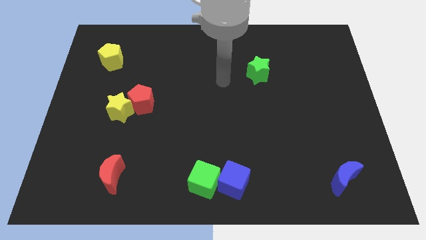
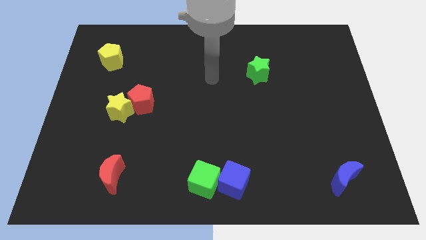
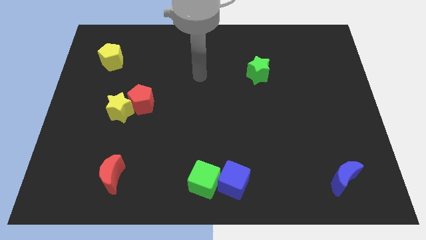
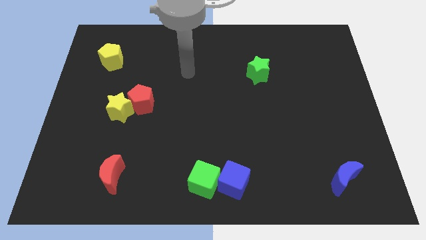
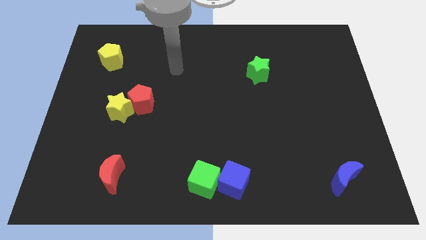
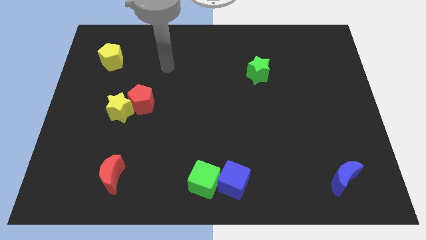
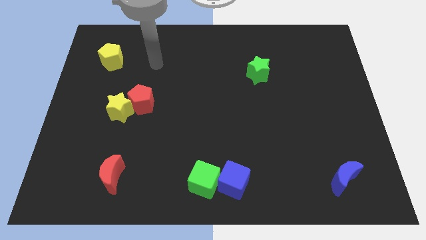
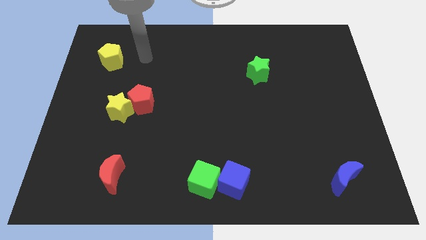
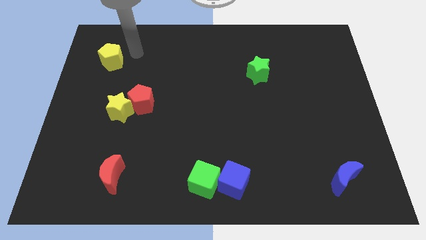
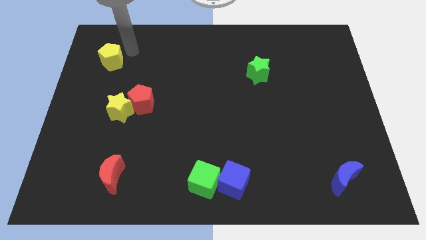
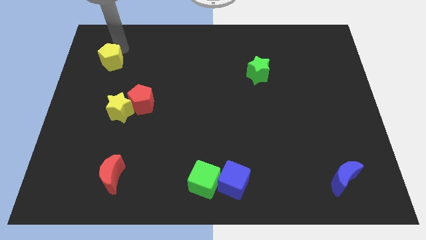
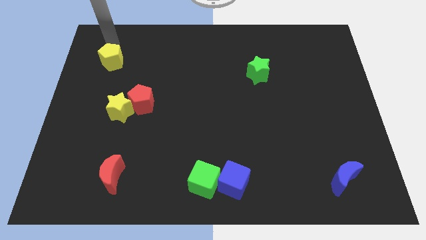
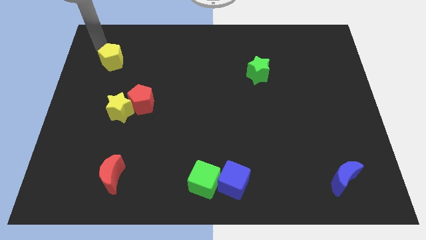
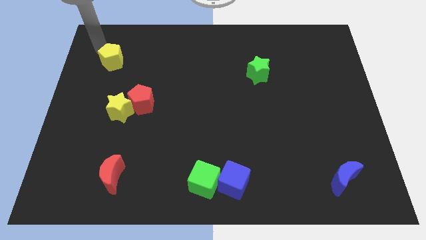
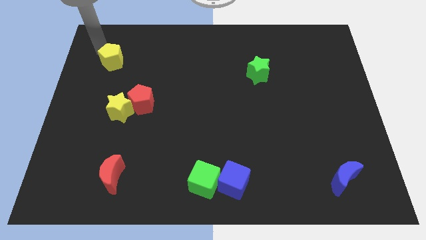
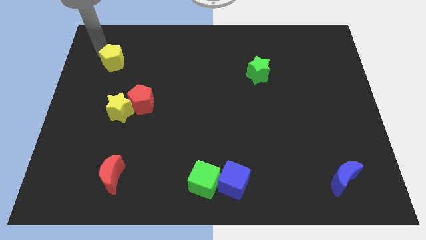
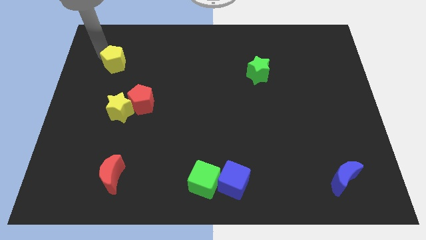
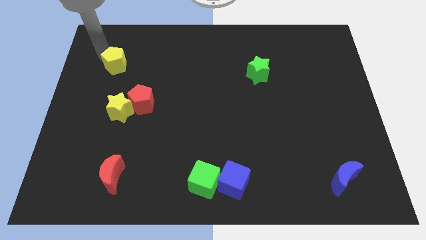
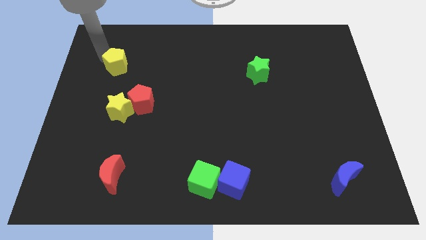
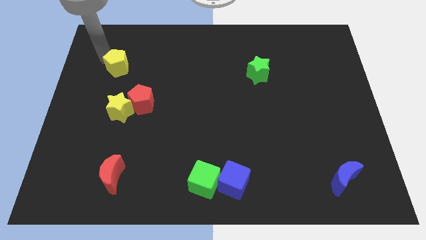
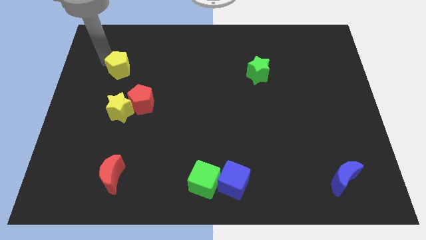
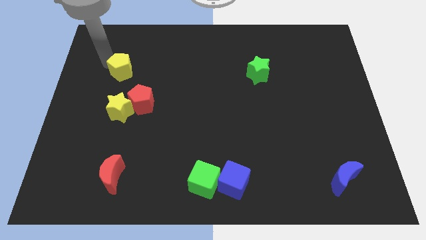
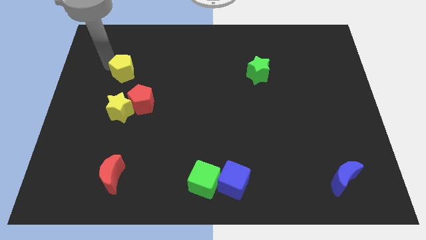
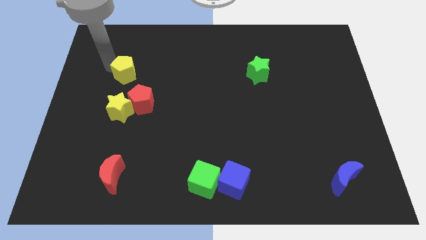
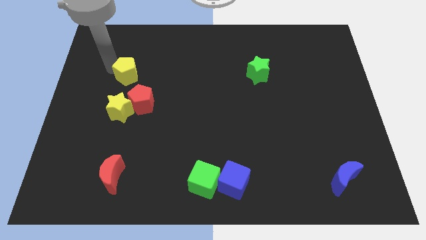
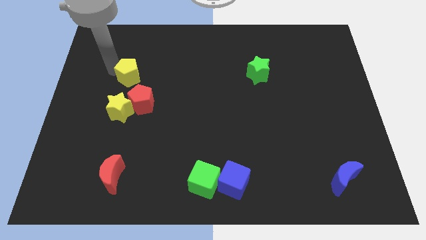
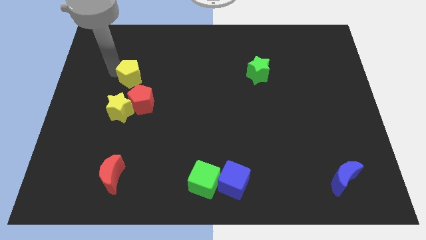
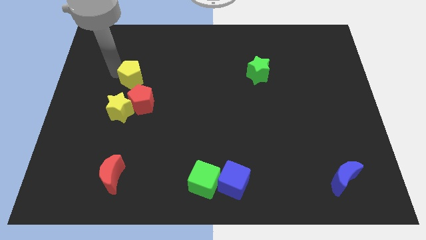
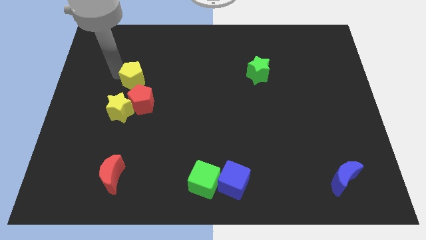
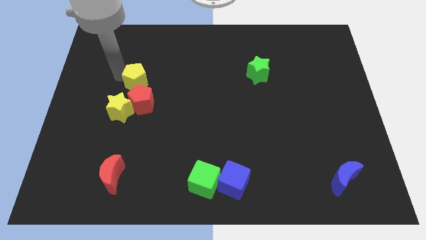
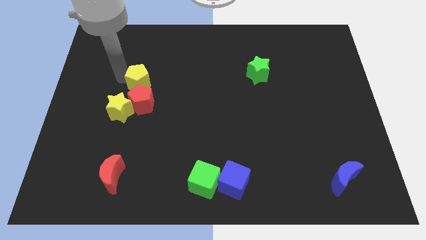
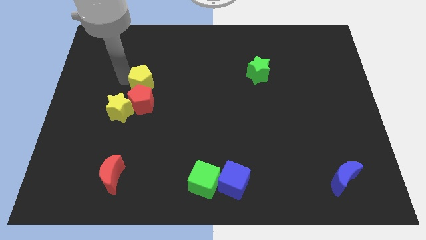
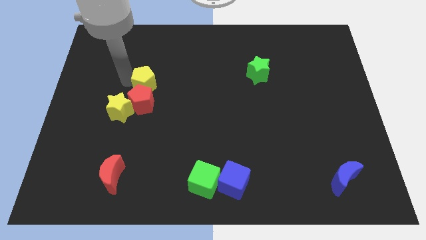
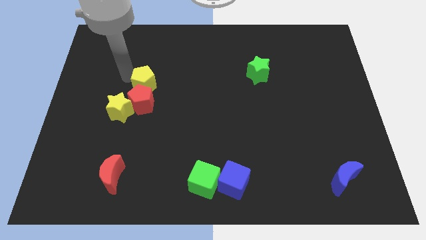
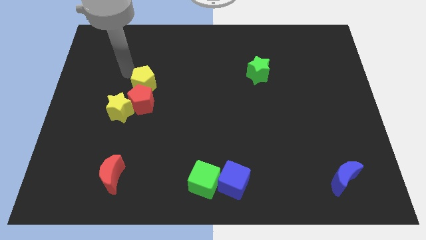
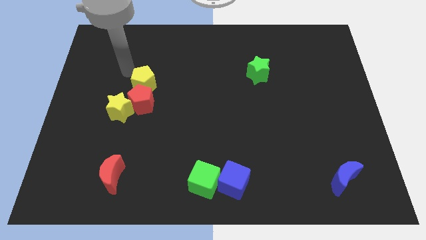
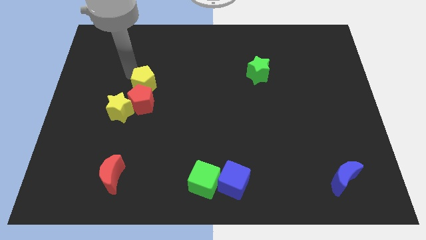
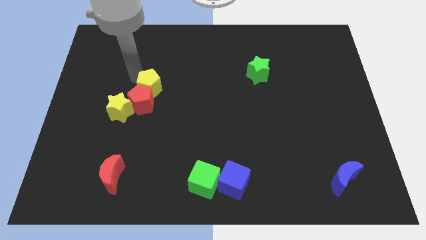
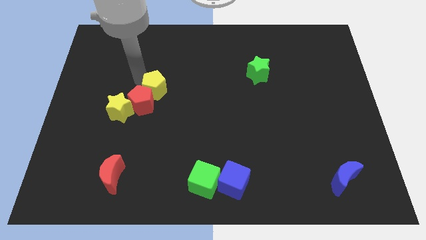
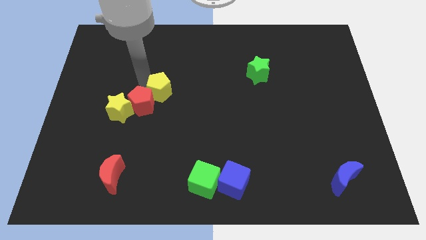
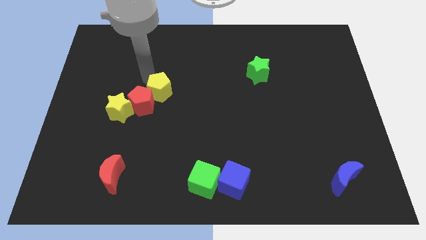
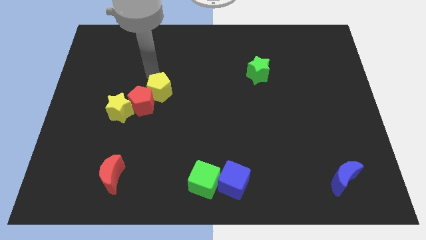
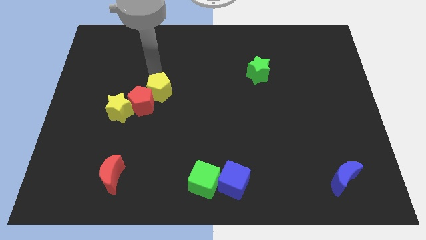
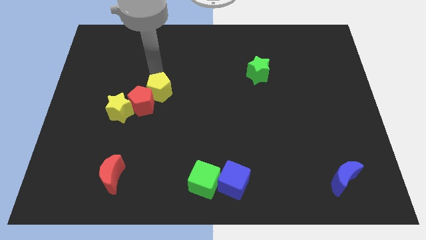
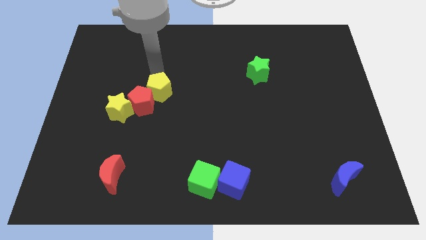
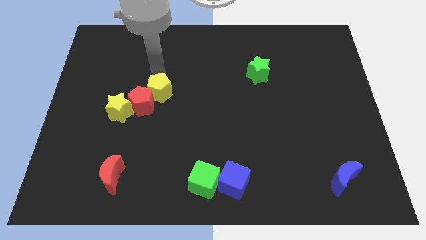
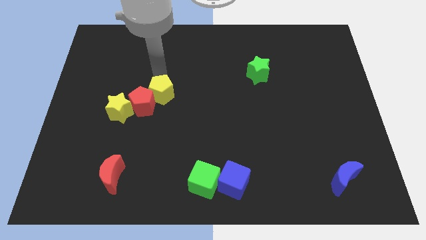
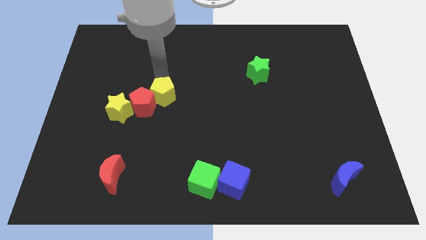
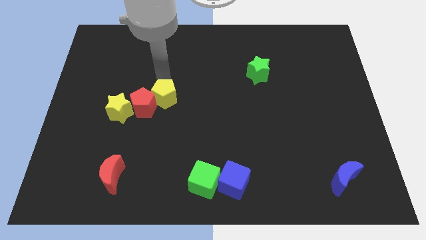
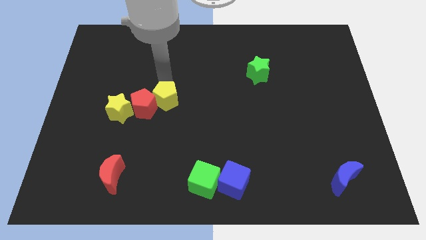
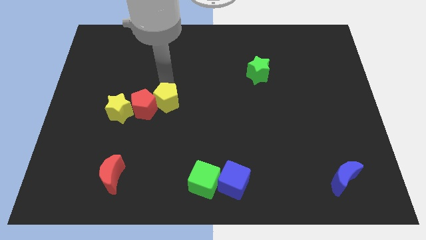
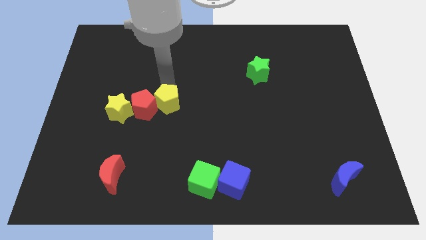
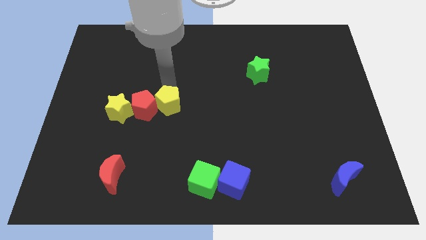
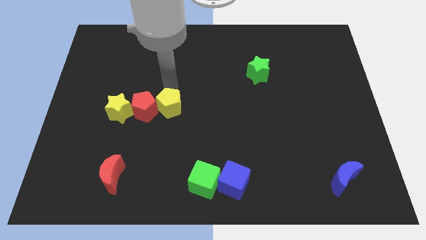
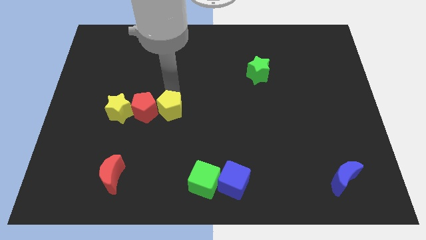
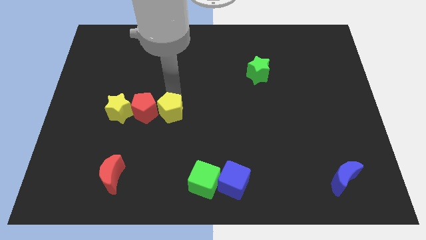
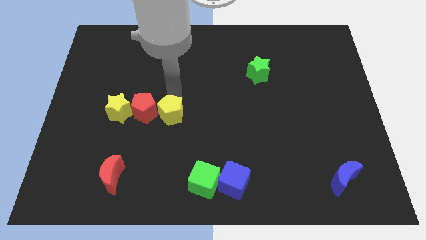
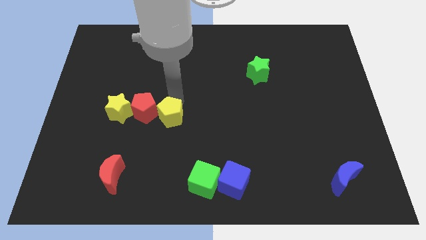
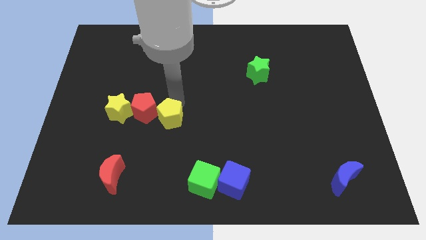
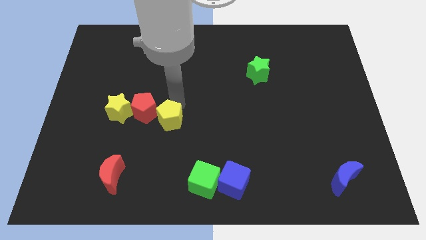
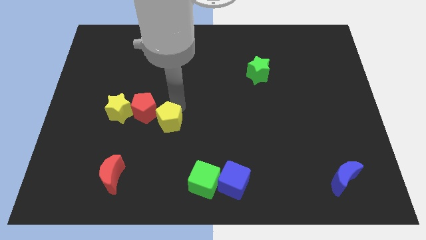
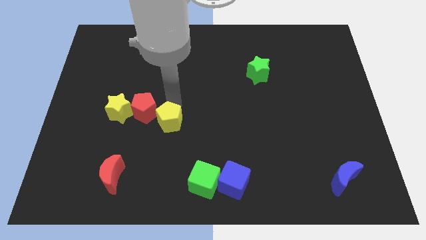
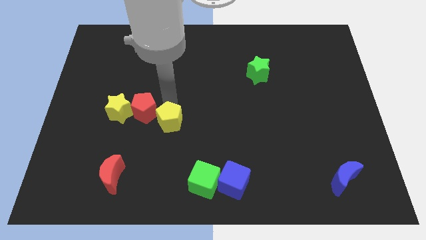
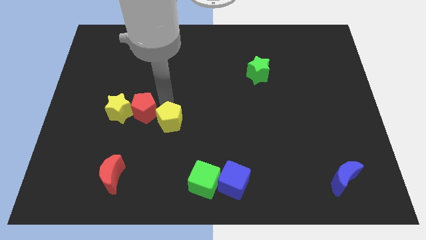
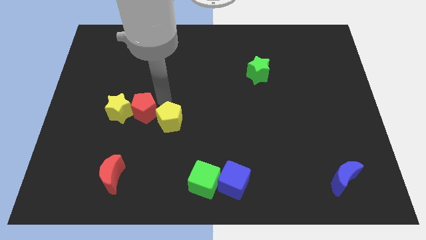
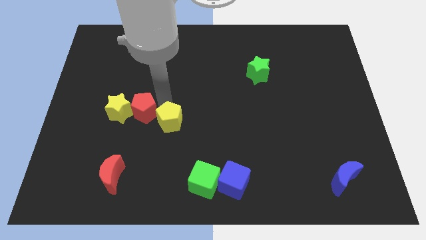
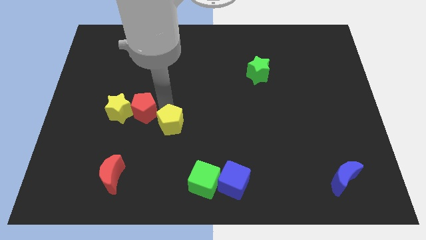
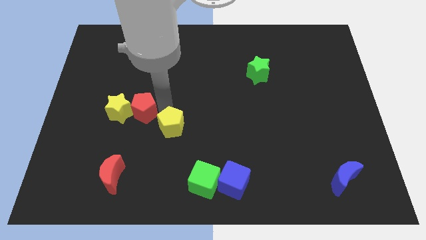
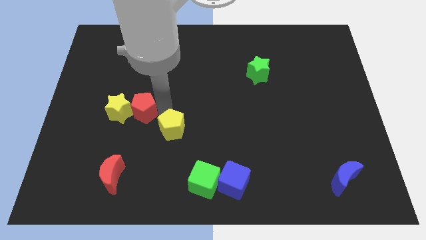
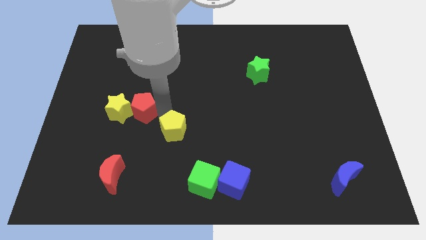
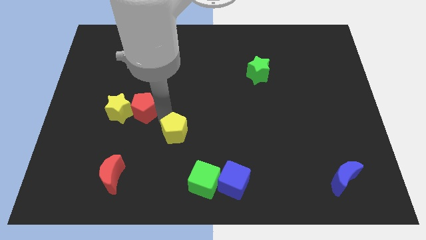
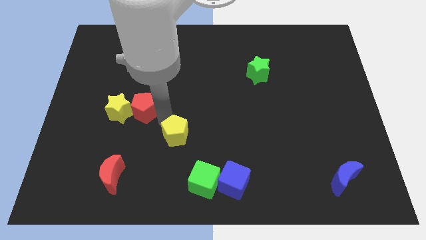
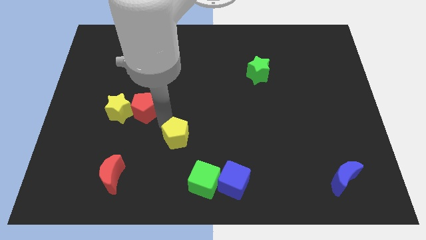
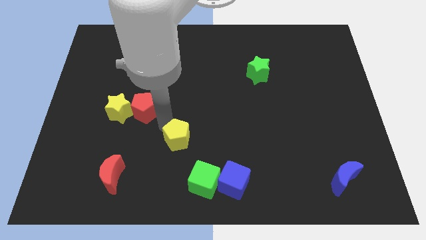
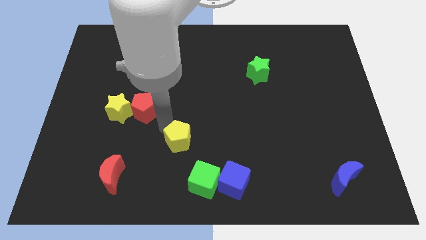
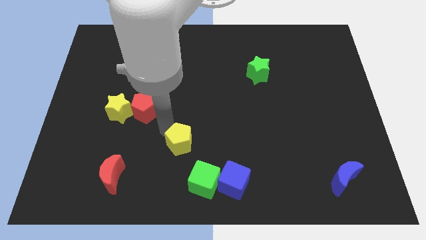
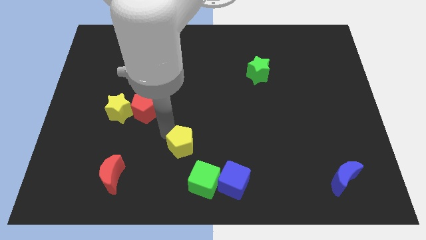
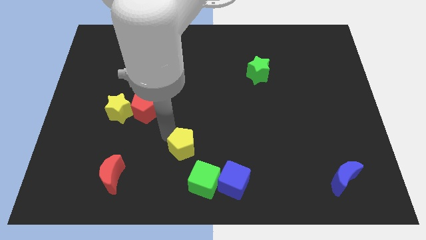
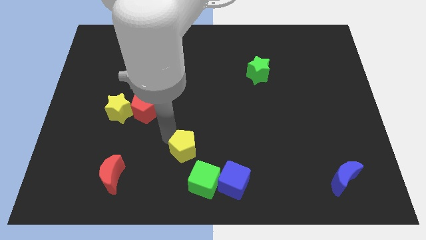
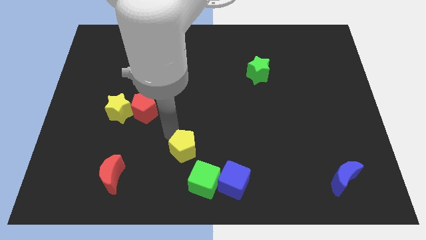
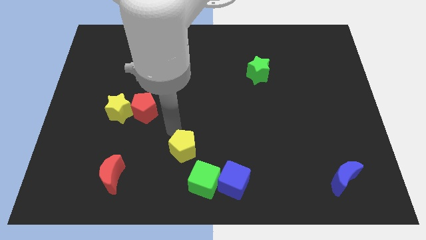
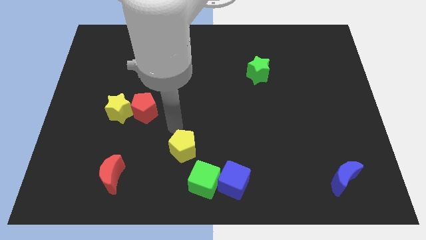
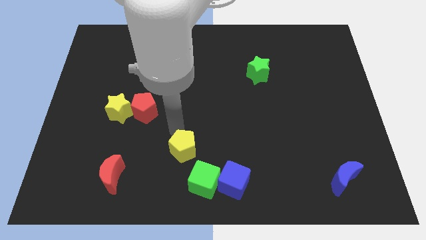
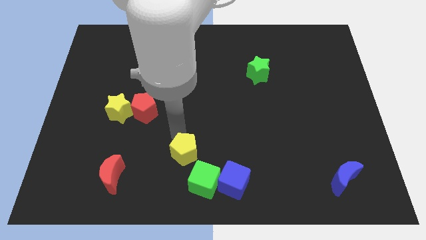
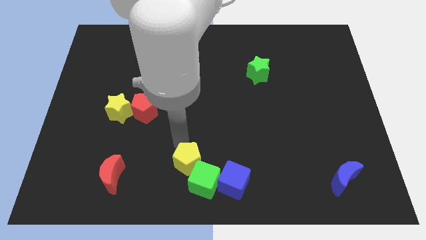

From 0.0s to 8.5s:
slide the yellow pentagon towards the green cube
